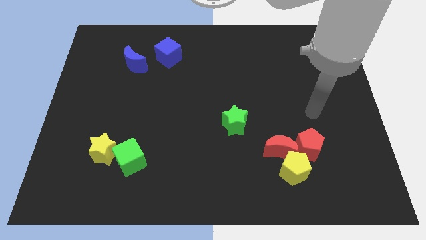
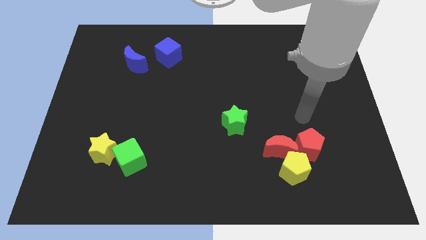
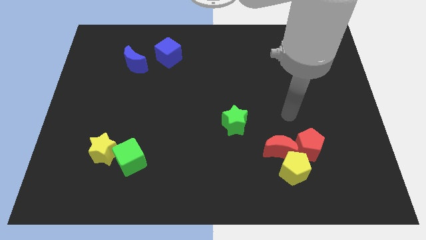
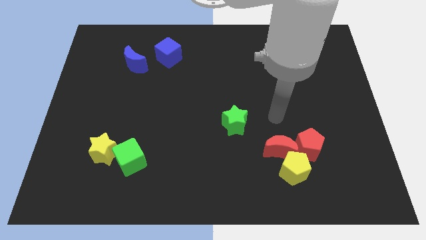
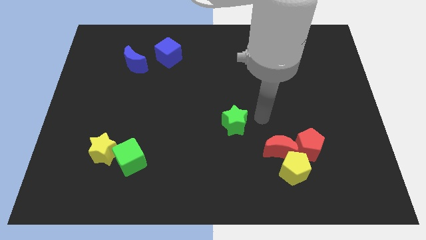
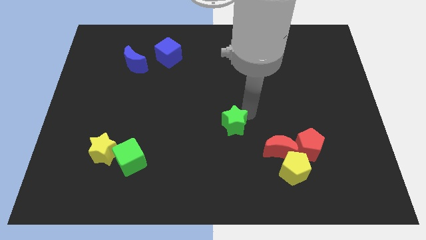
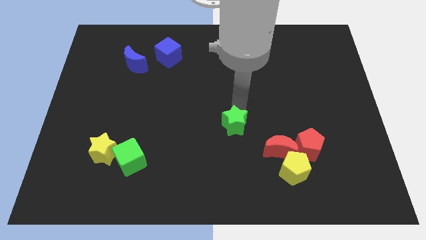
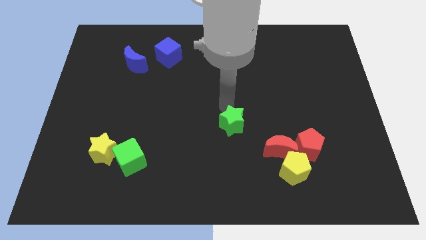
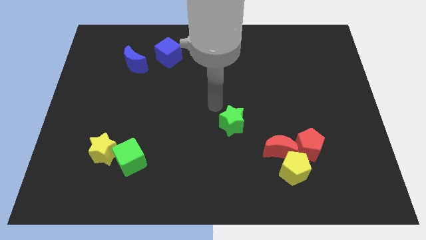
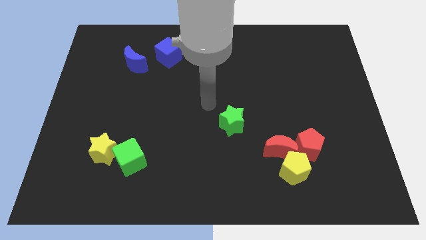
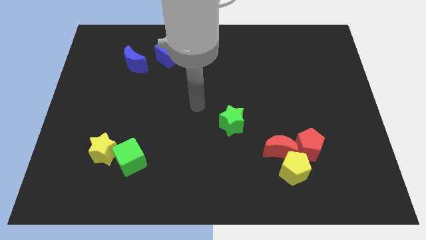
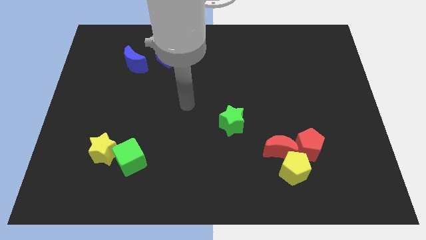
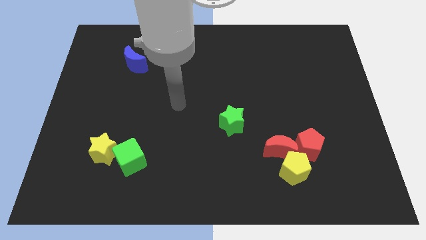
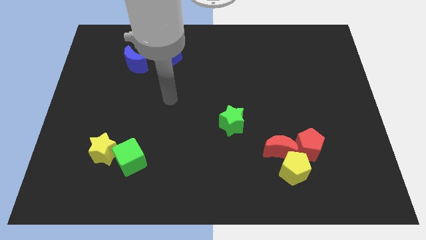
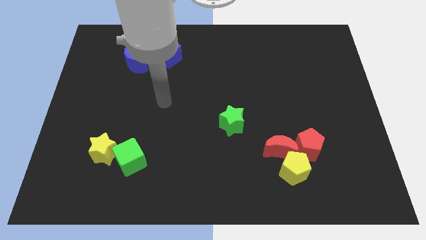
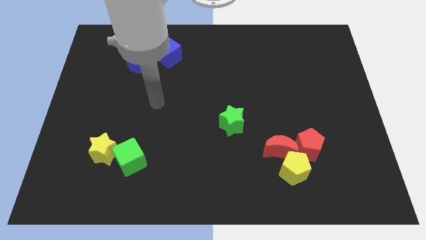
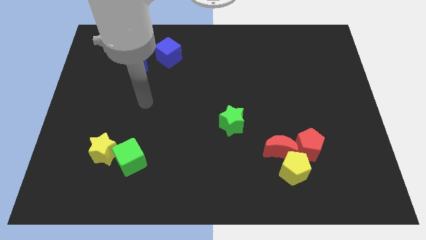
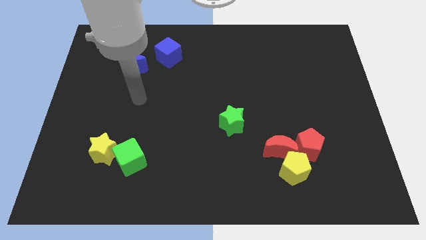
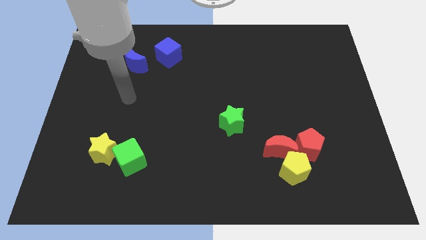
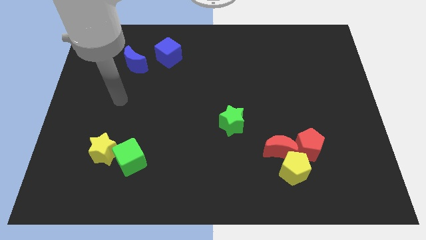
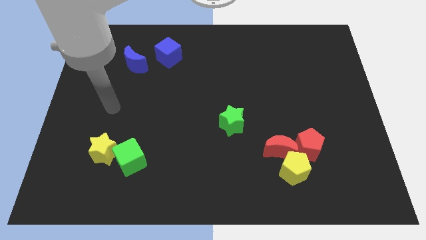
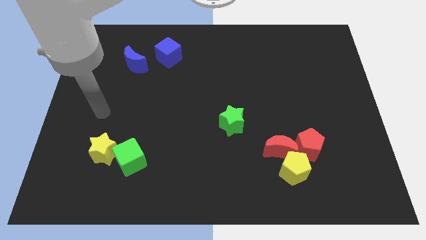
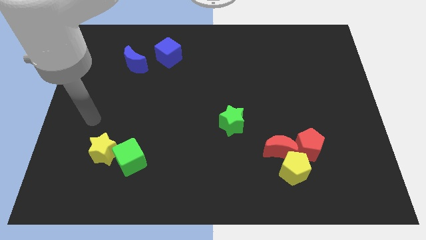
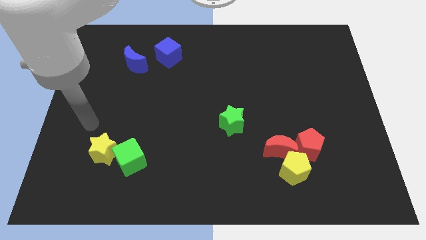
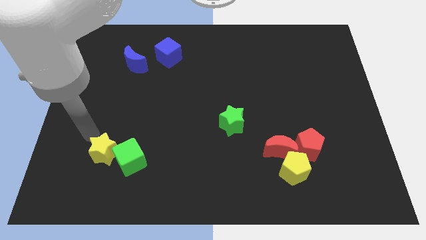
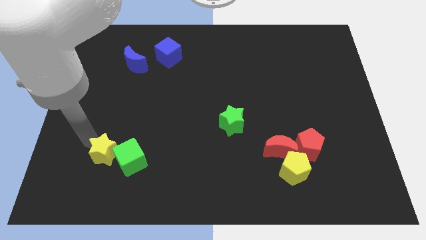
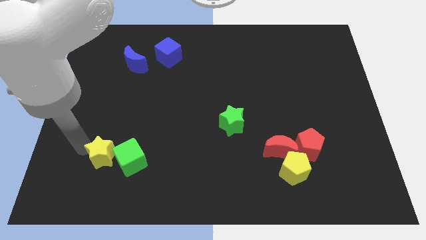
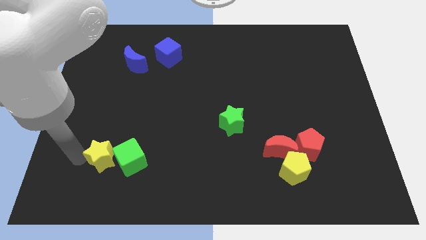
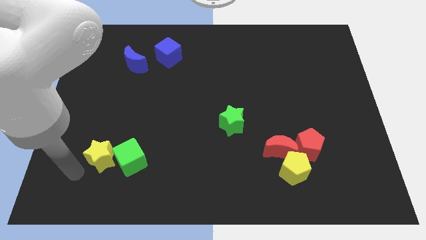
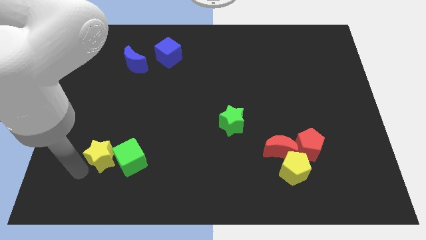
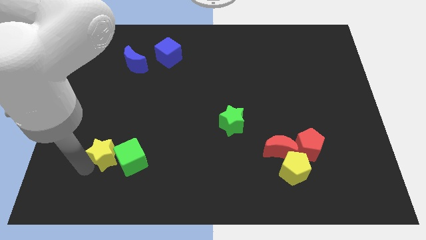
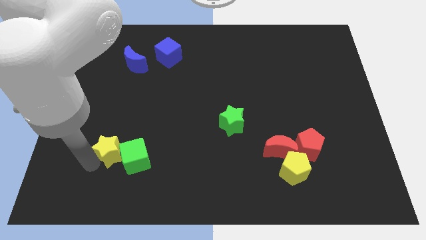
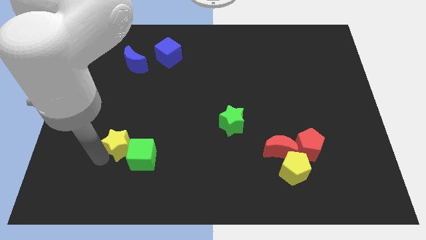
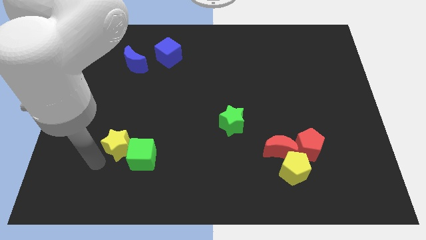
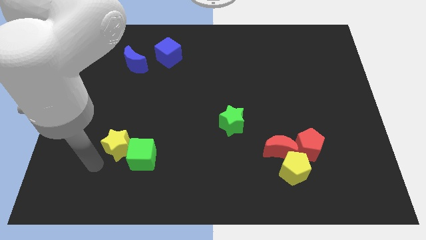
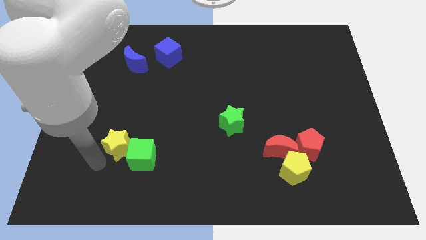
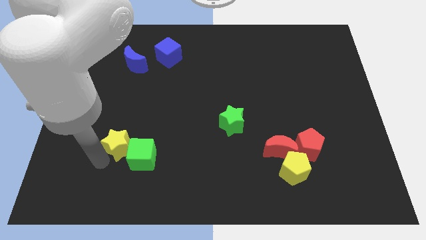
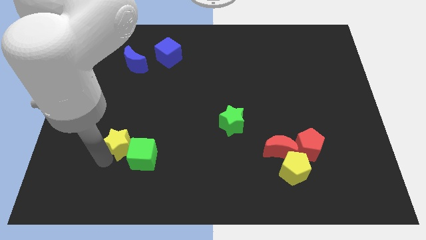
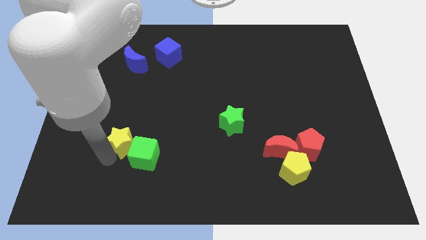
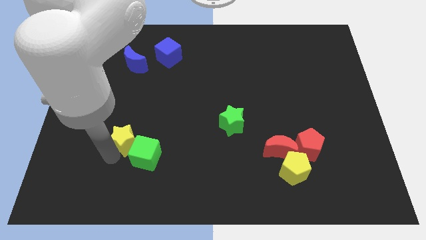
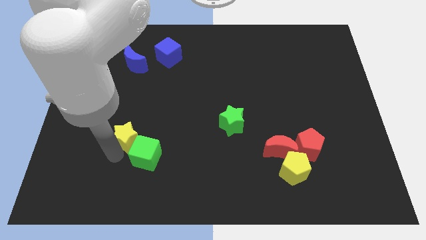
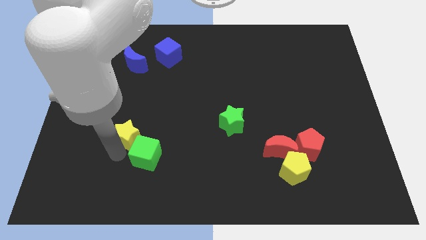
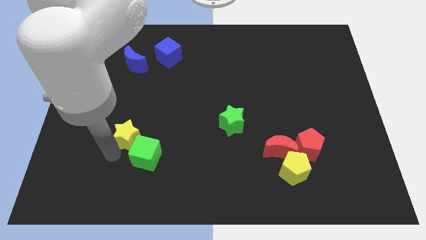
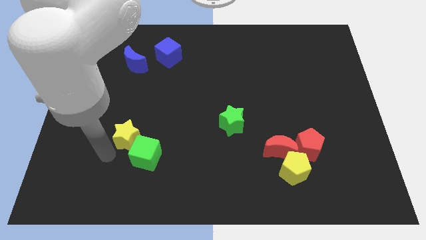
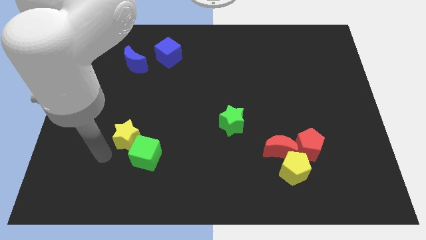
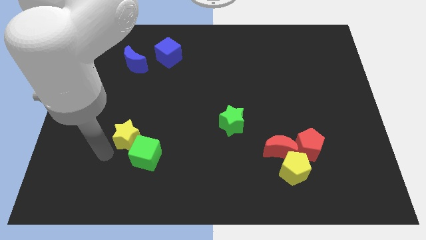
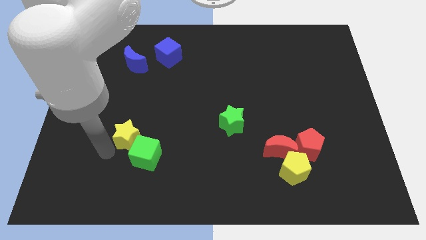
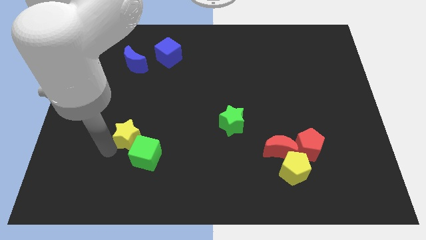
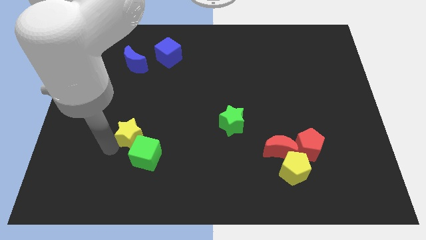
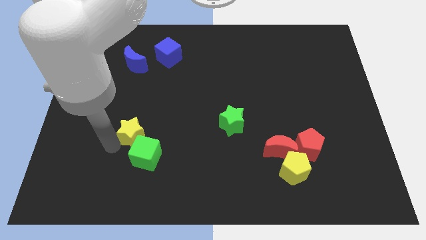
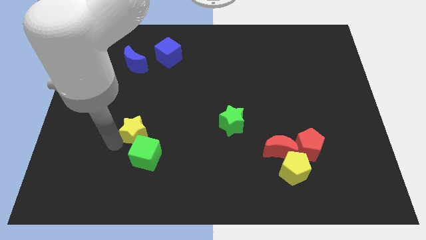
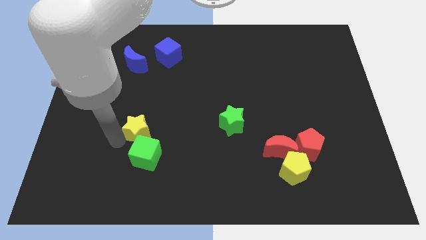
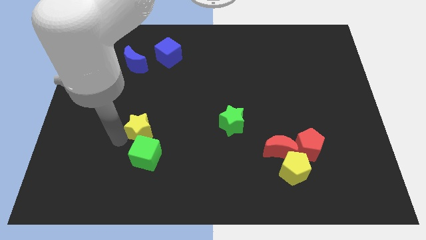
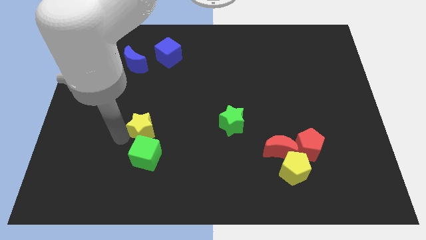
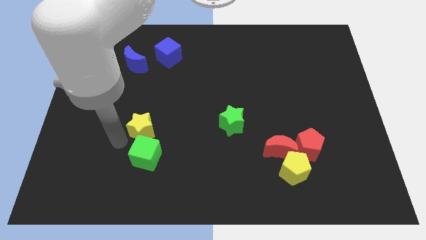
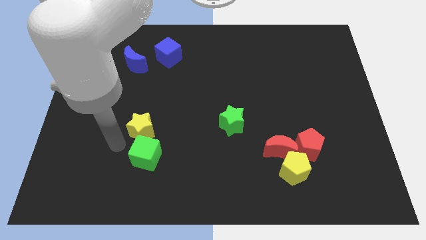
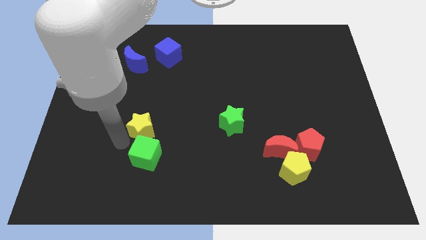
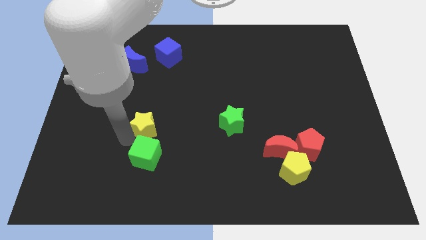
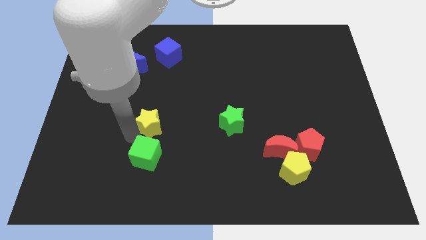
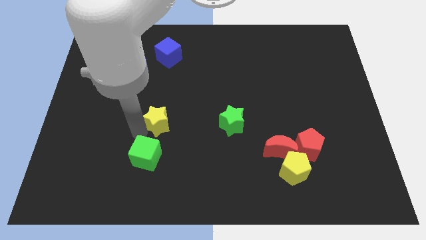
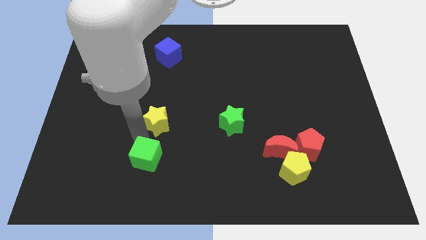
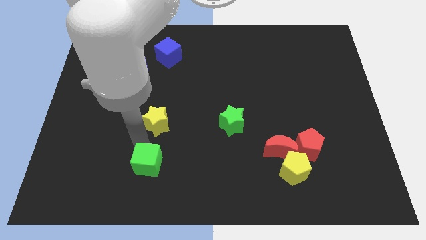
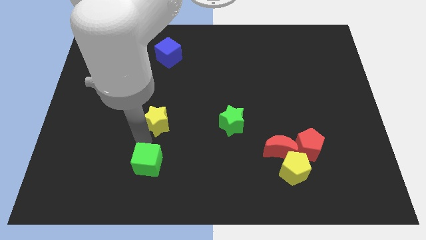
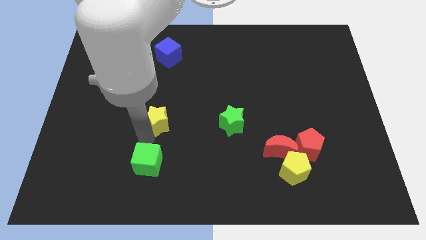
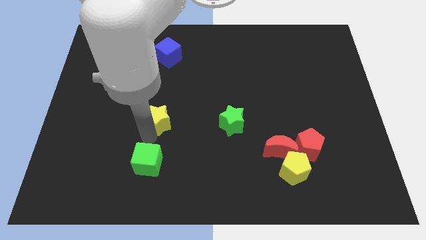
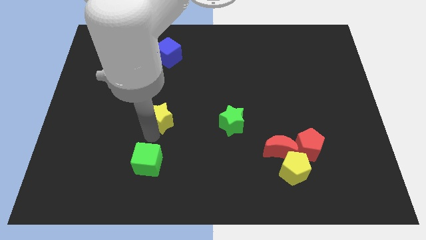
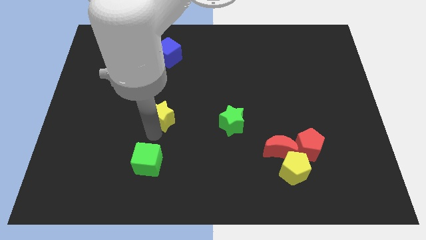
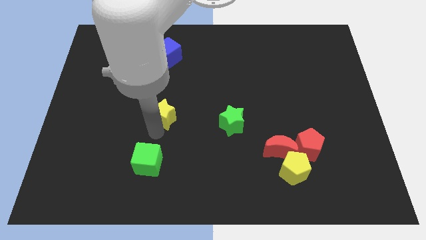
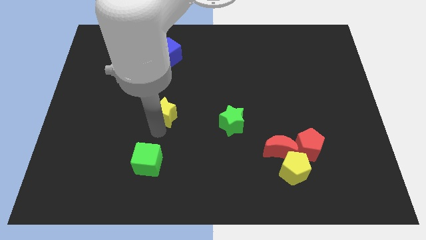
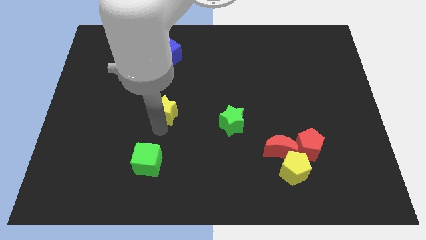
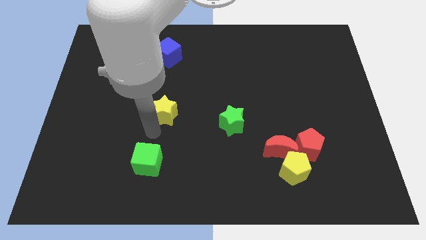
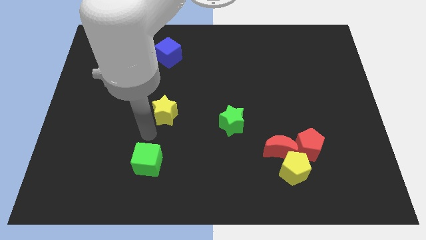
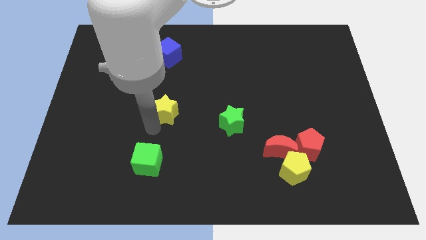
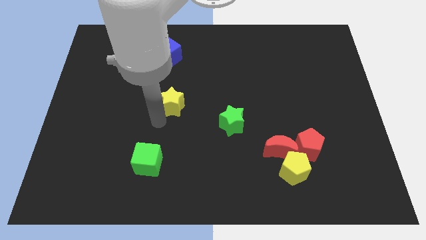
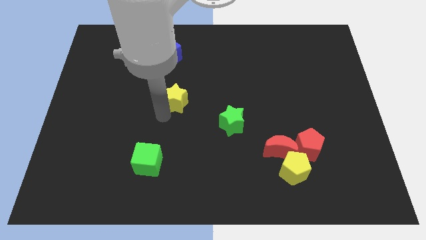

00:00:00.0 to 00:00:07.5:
slide the yellow star up and then right

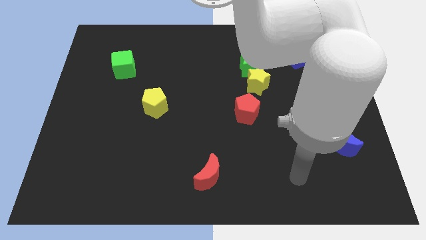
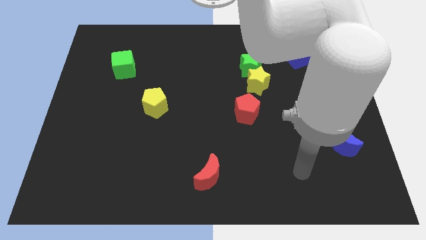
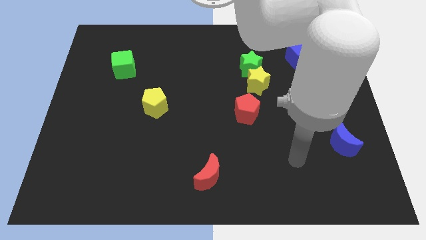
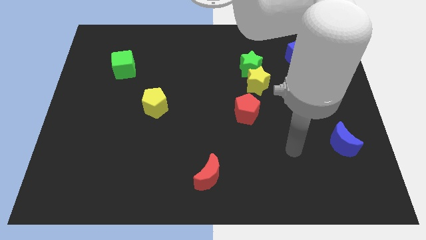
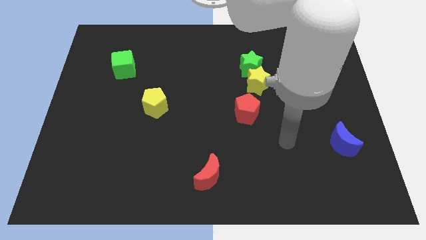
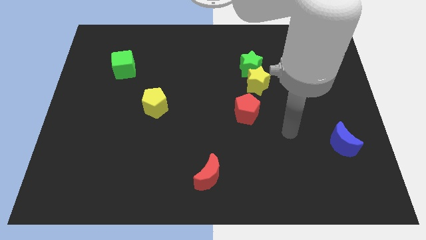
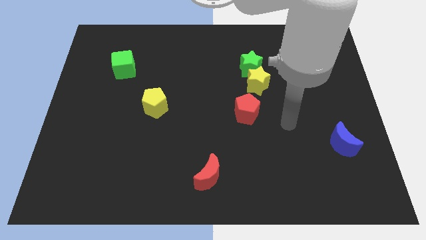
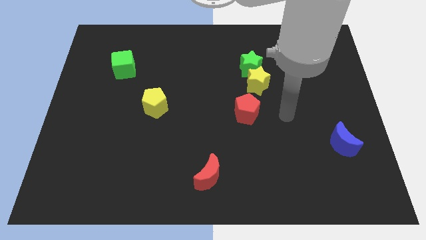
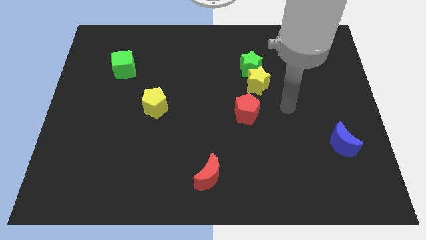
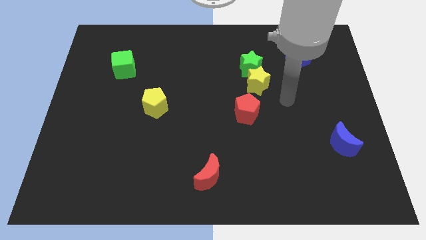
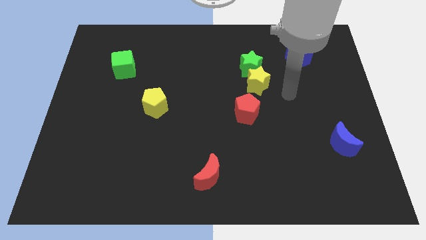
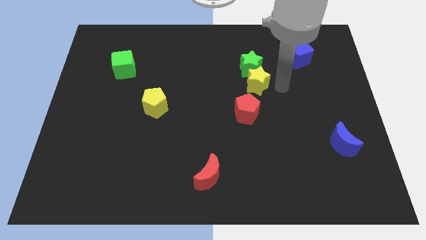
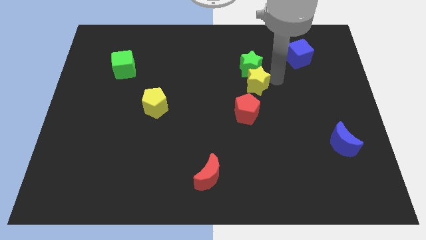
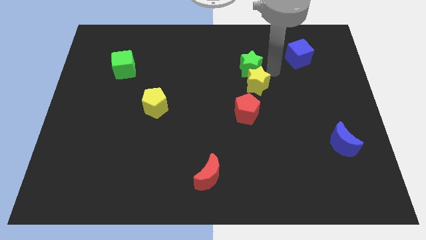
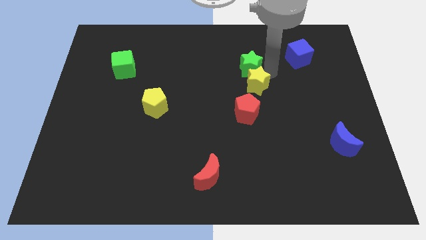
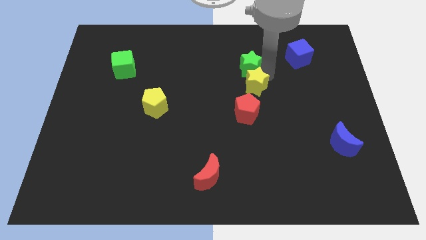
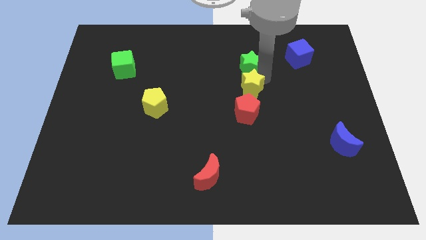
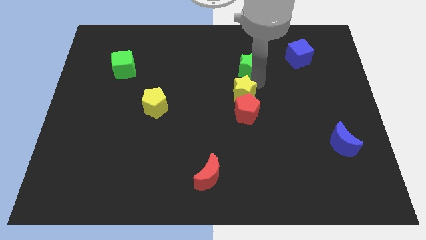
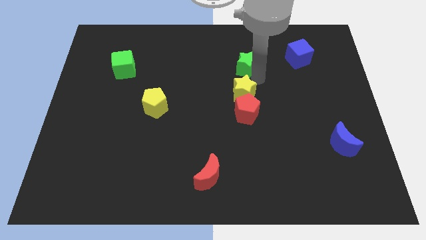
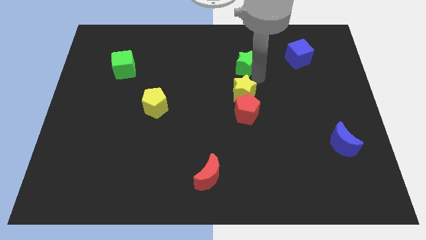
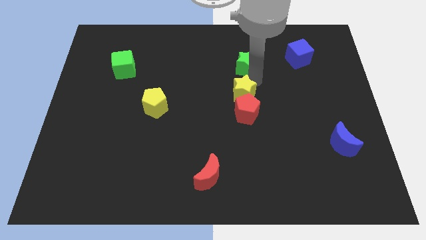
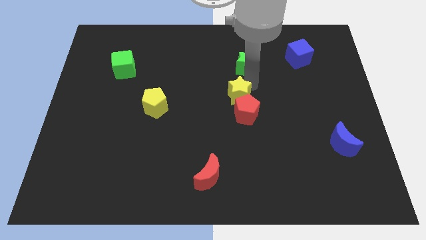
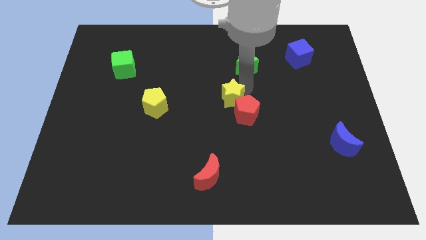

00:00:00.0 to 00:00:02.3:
slightly push the yellow star downwards and to the left
